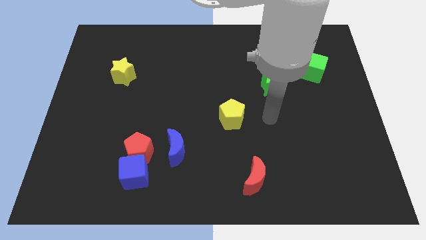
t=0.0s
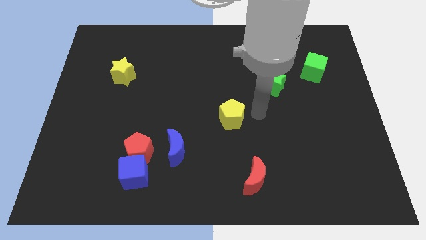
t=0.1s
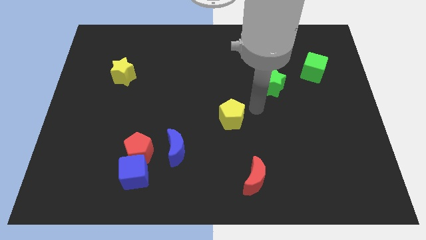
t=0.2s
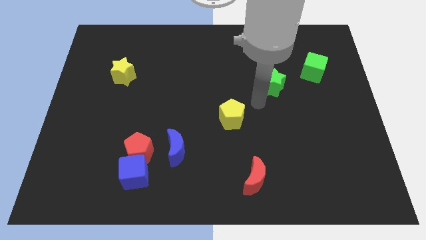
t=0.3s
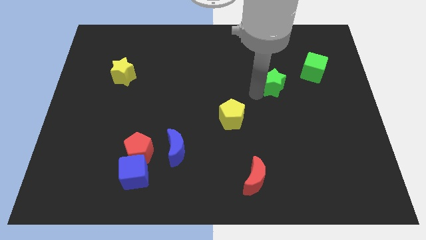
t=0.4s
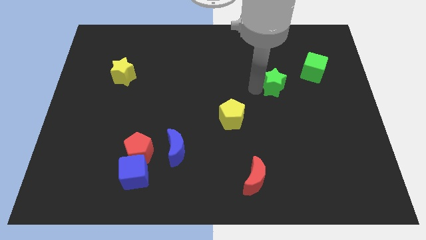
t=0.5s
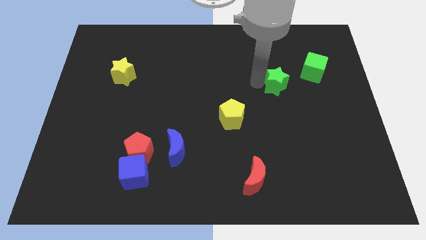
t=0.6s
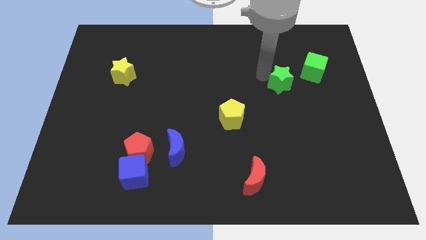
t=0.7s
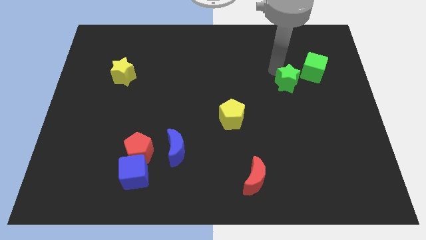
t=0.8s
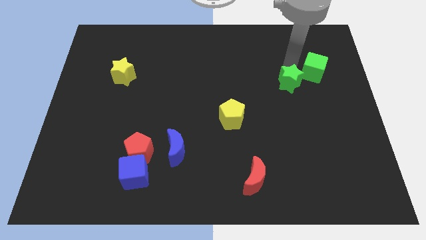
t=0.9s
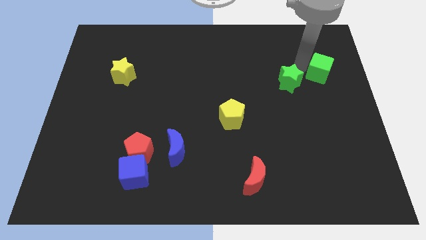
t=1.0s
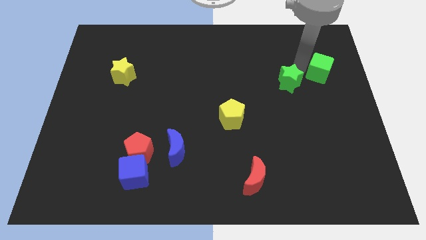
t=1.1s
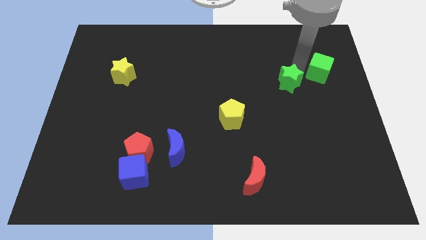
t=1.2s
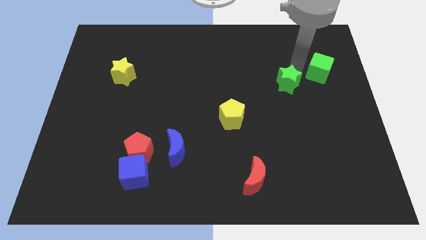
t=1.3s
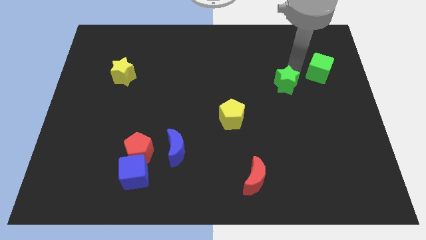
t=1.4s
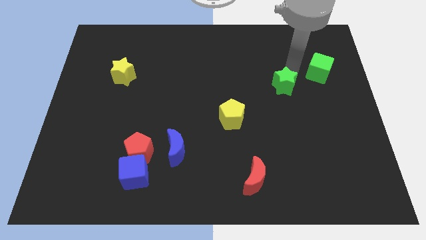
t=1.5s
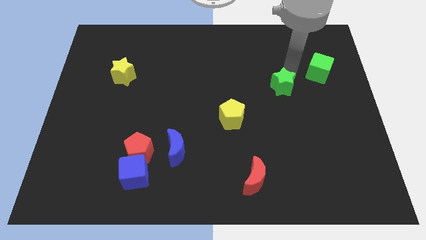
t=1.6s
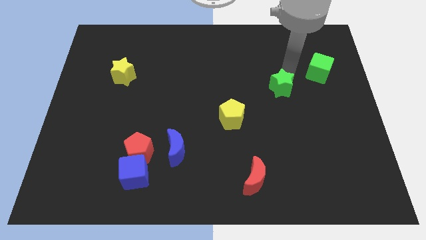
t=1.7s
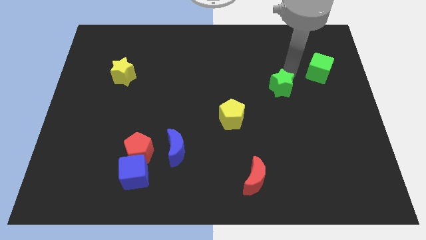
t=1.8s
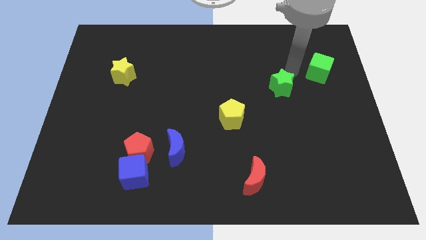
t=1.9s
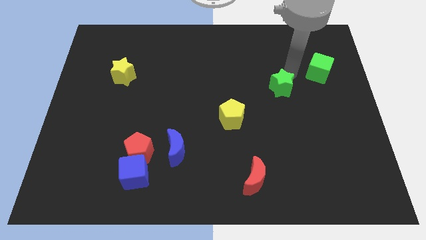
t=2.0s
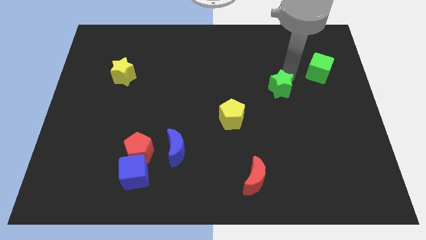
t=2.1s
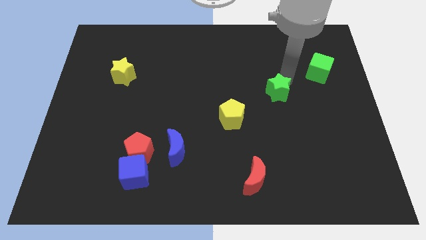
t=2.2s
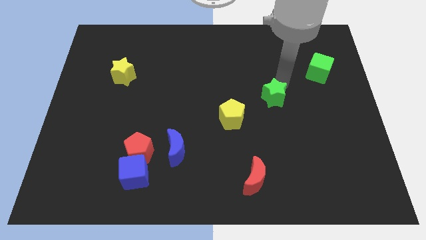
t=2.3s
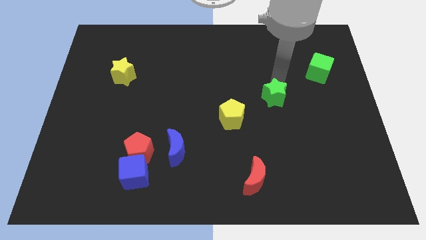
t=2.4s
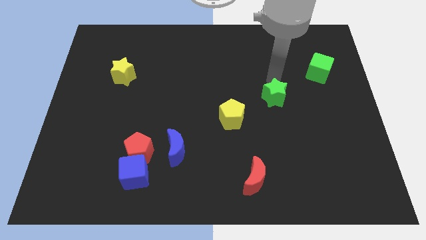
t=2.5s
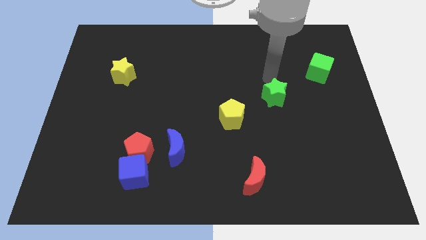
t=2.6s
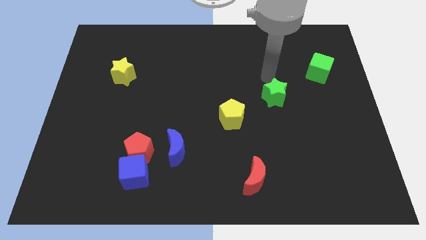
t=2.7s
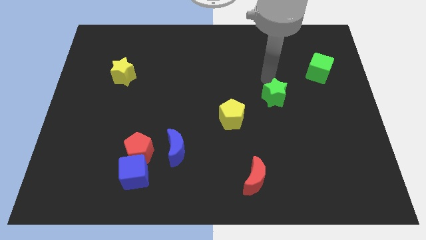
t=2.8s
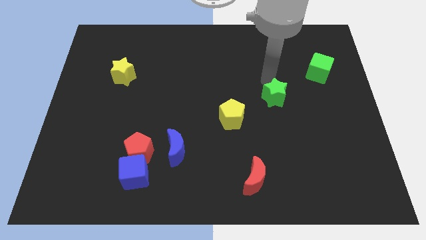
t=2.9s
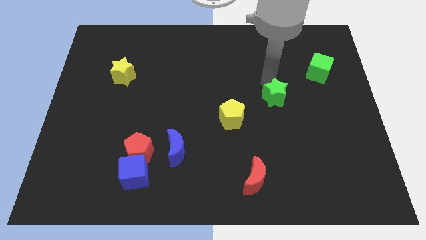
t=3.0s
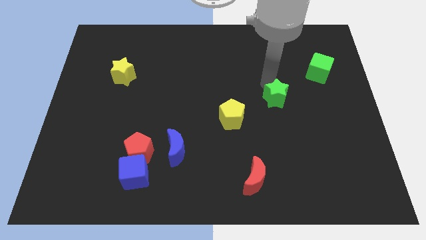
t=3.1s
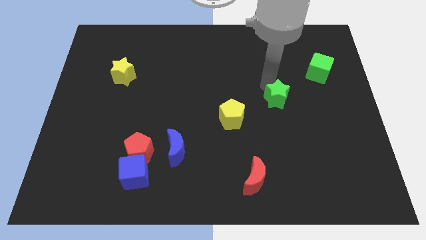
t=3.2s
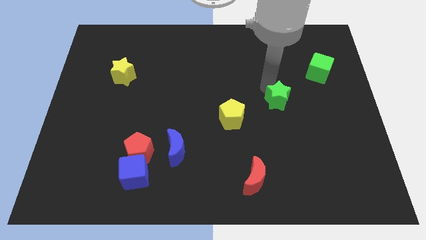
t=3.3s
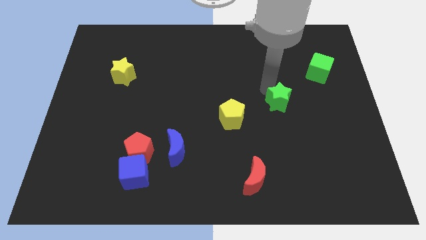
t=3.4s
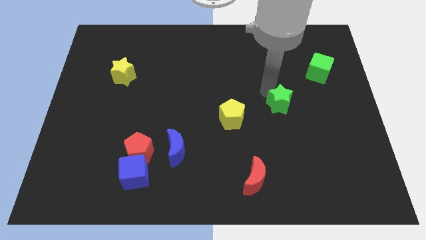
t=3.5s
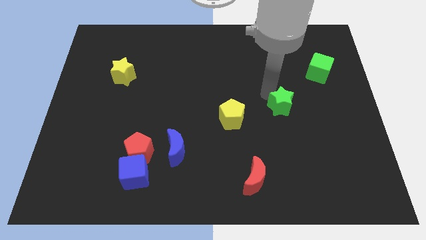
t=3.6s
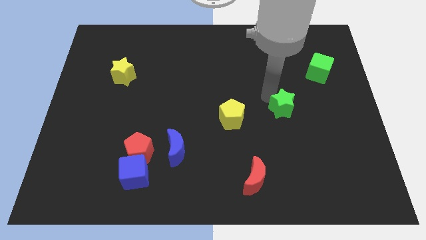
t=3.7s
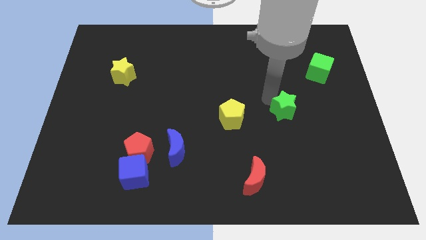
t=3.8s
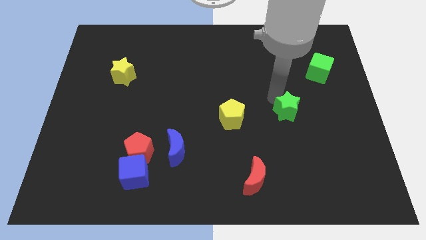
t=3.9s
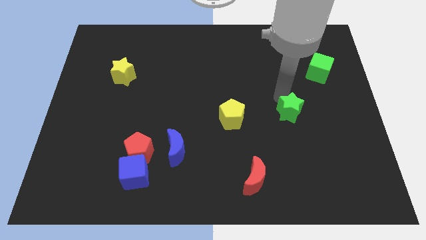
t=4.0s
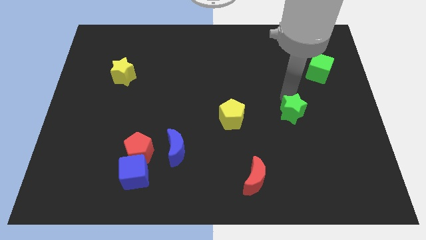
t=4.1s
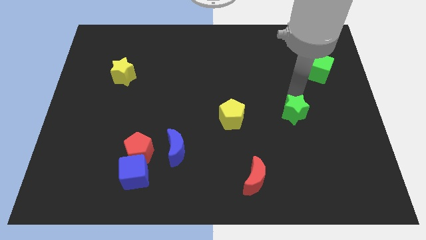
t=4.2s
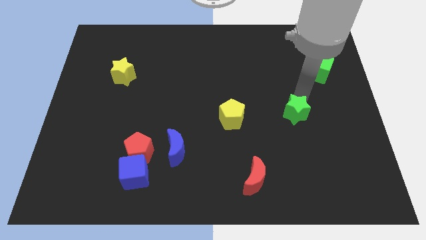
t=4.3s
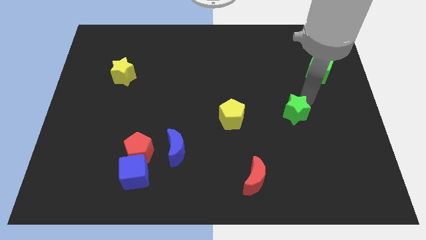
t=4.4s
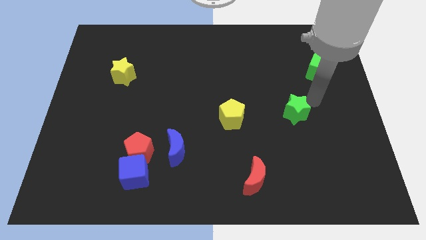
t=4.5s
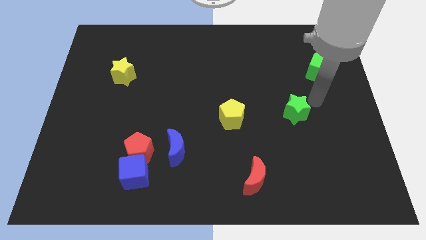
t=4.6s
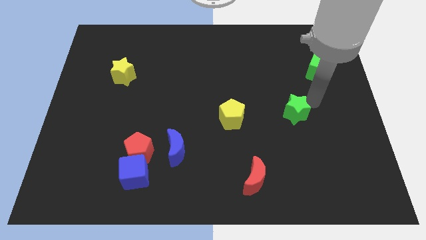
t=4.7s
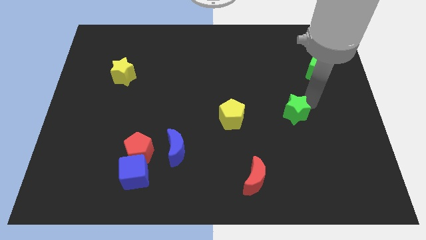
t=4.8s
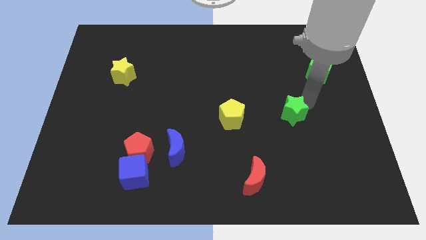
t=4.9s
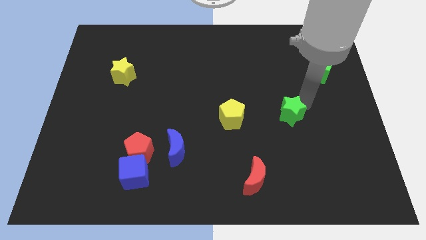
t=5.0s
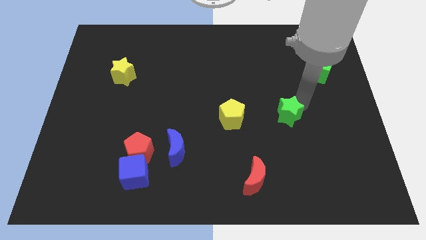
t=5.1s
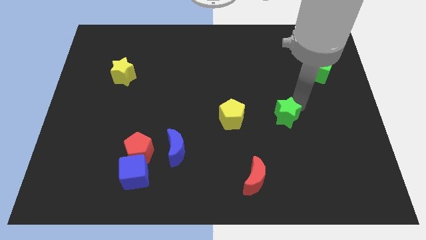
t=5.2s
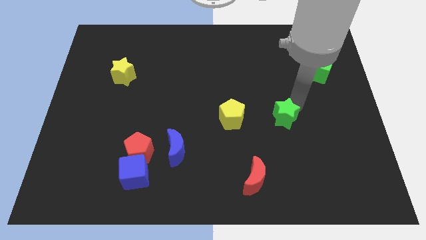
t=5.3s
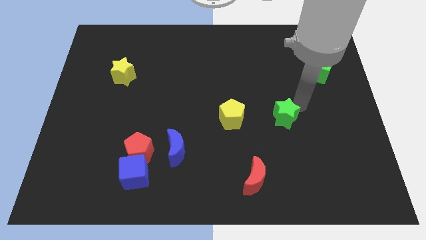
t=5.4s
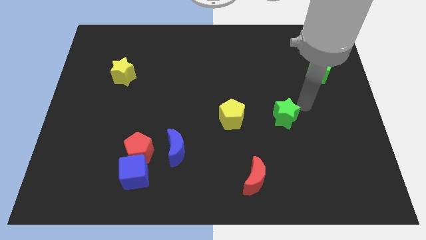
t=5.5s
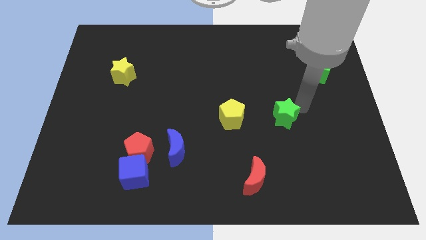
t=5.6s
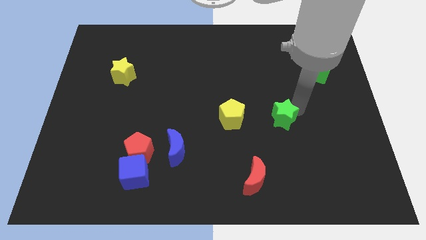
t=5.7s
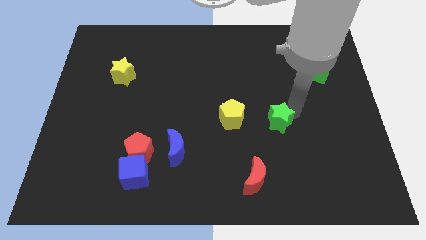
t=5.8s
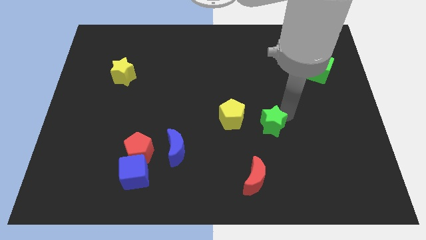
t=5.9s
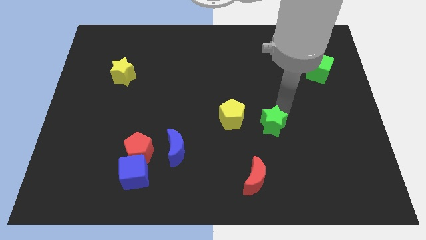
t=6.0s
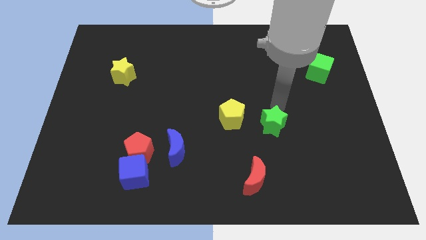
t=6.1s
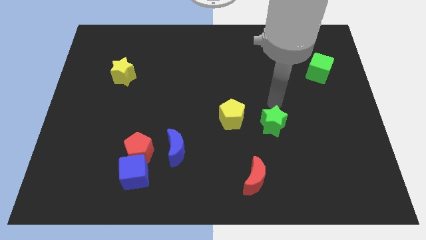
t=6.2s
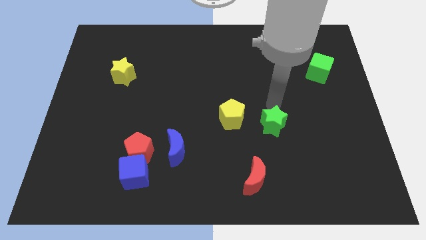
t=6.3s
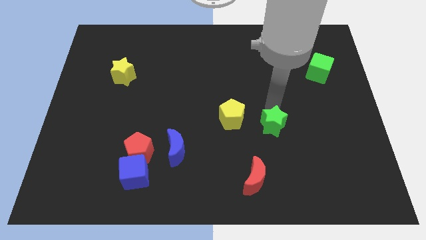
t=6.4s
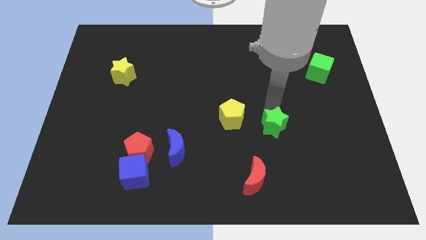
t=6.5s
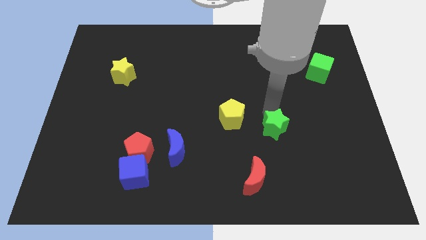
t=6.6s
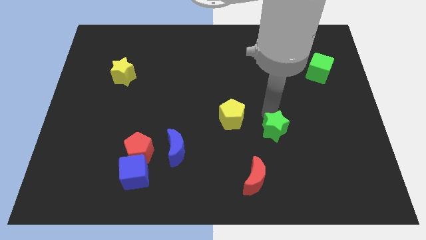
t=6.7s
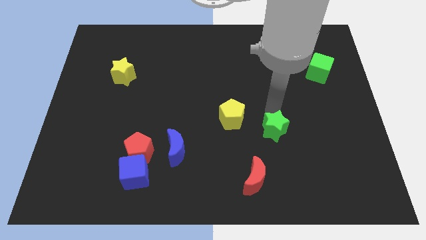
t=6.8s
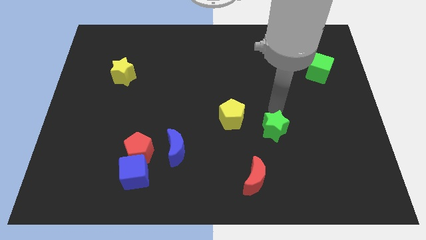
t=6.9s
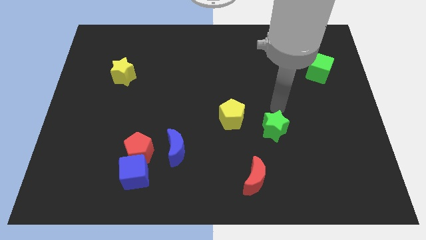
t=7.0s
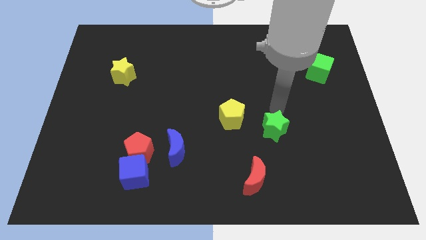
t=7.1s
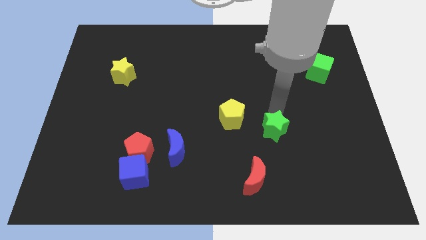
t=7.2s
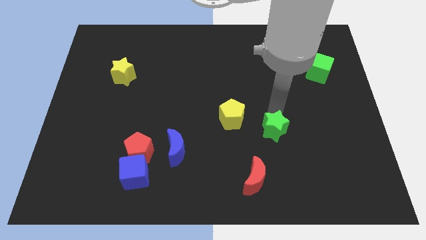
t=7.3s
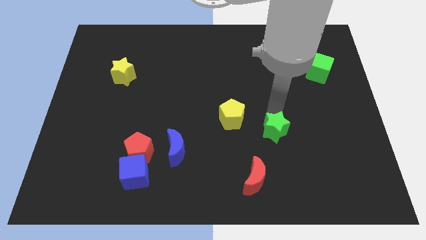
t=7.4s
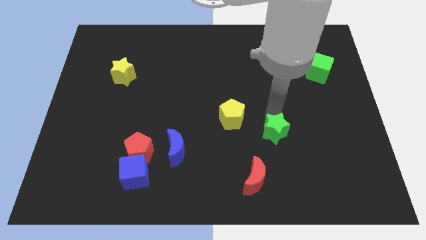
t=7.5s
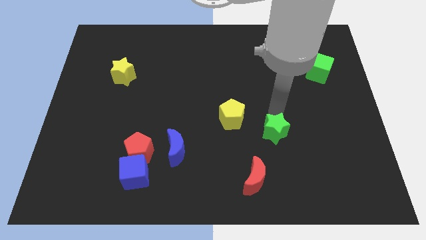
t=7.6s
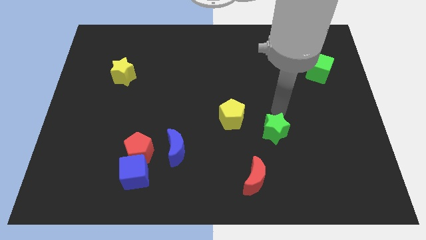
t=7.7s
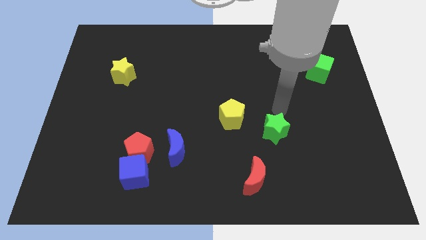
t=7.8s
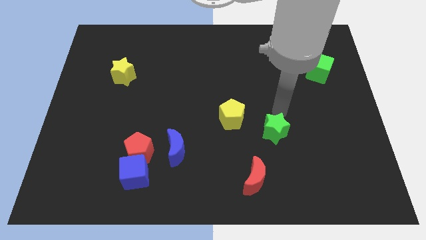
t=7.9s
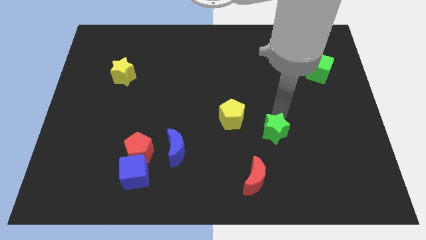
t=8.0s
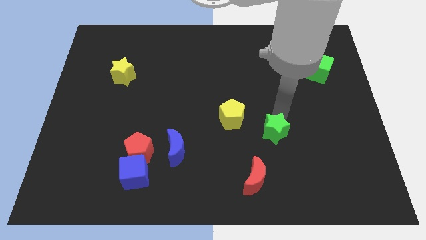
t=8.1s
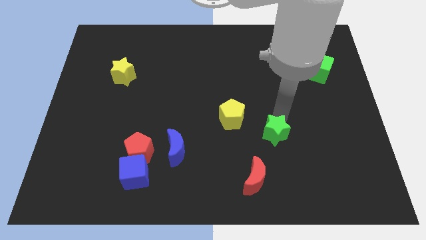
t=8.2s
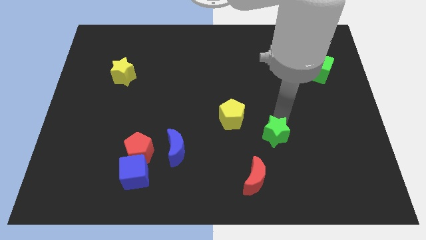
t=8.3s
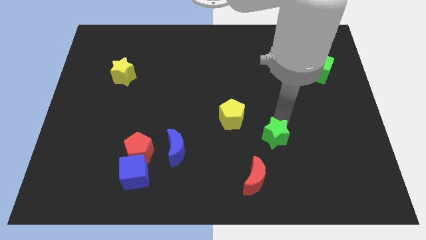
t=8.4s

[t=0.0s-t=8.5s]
put the green star to the top right of the red moon
